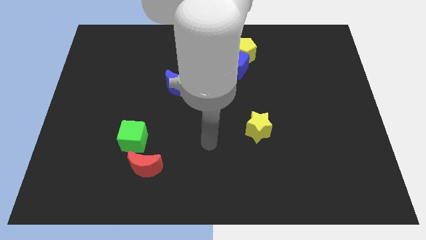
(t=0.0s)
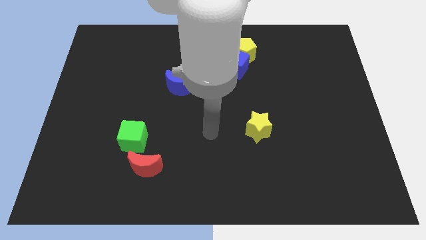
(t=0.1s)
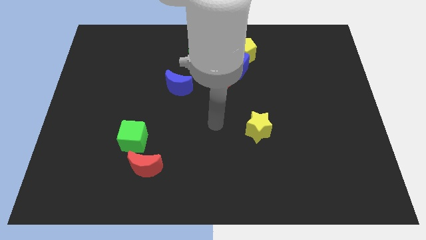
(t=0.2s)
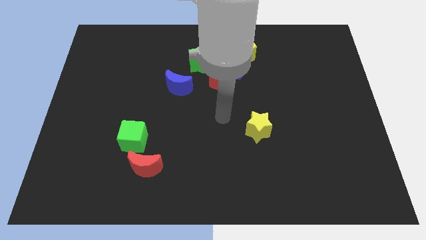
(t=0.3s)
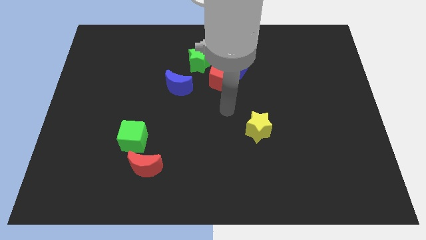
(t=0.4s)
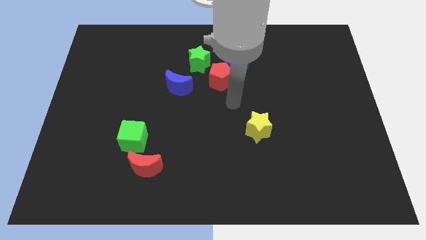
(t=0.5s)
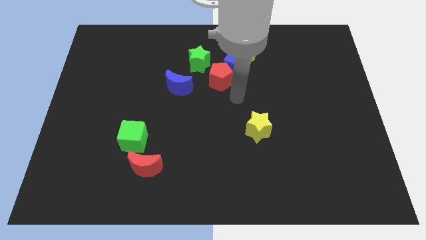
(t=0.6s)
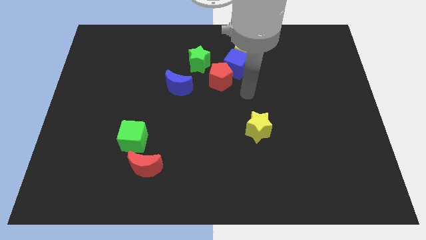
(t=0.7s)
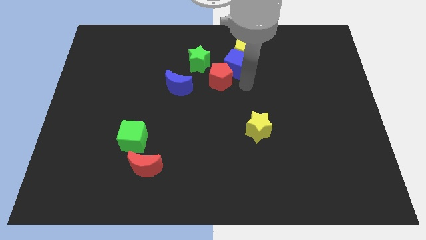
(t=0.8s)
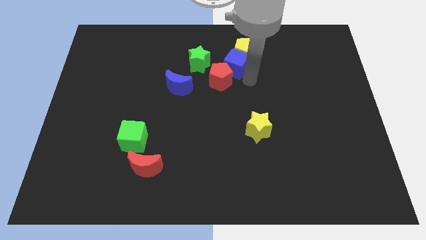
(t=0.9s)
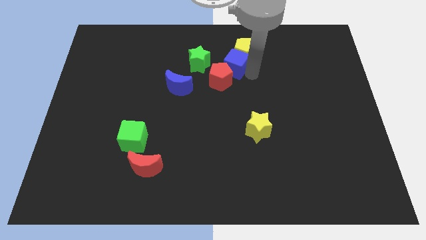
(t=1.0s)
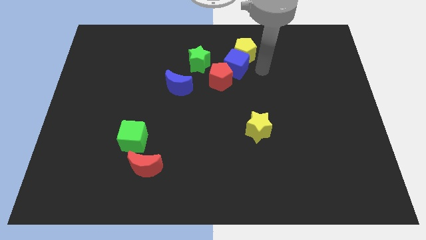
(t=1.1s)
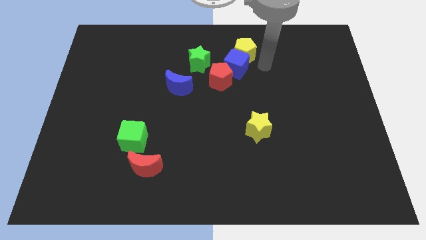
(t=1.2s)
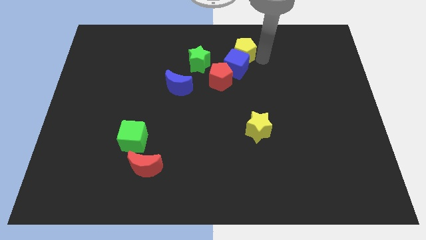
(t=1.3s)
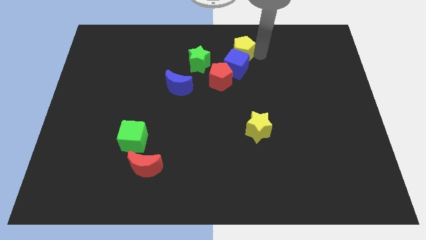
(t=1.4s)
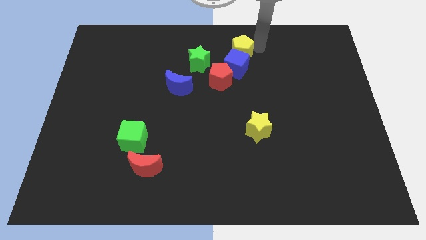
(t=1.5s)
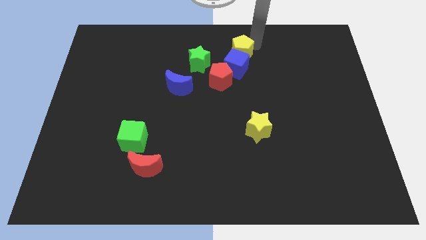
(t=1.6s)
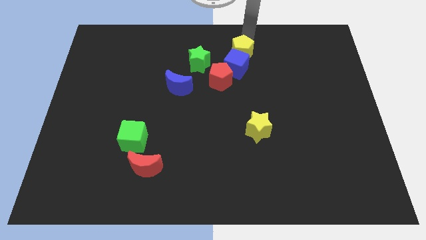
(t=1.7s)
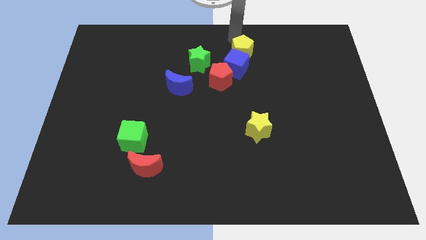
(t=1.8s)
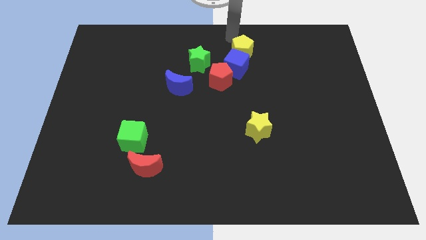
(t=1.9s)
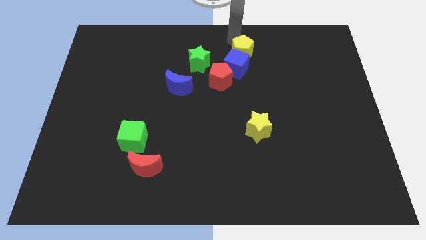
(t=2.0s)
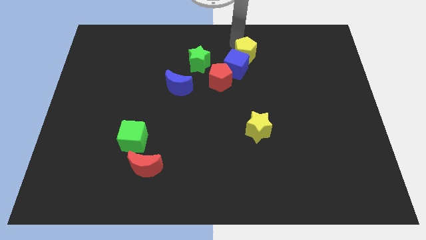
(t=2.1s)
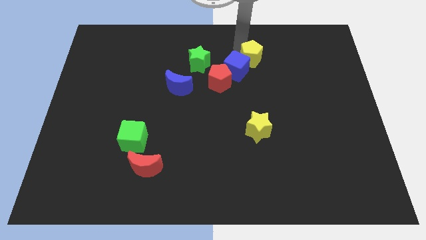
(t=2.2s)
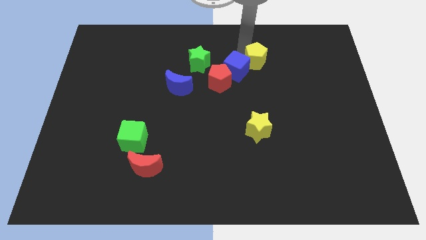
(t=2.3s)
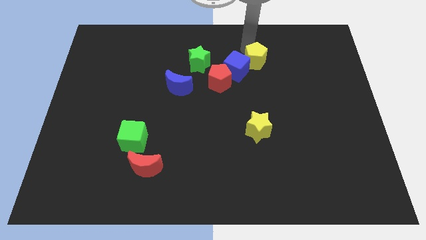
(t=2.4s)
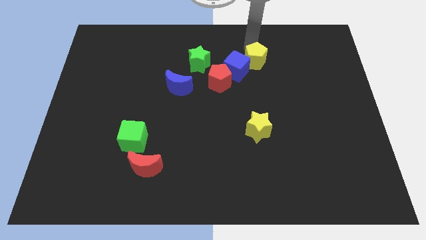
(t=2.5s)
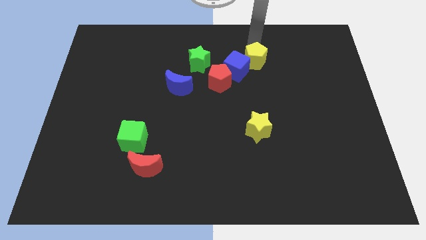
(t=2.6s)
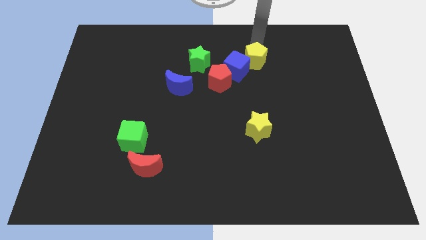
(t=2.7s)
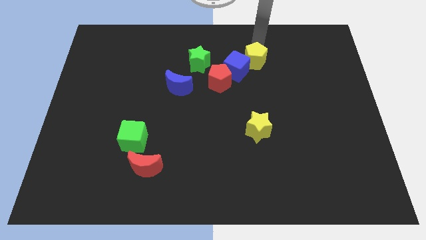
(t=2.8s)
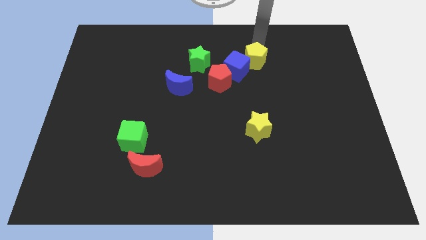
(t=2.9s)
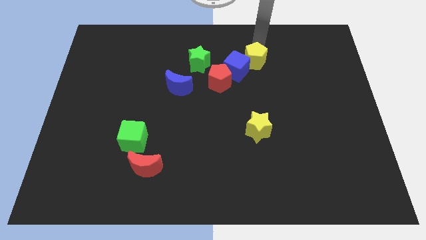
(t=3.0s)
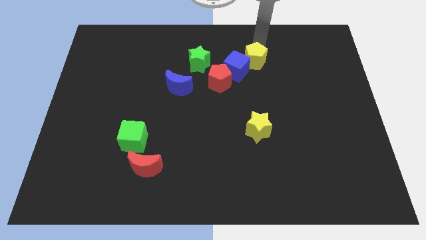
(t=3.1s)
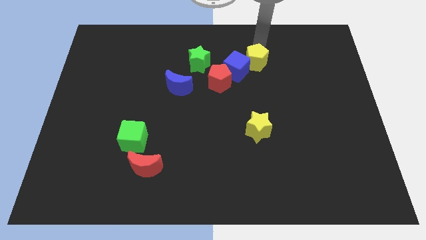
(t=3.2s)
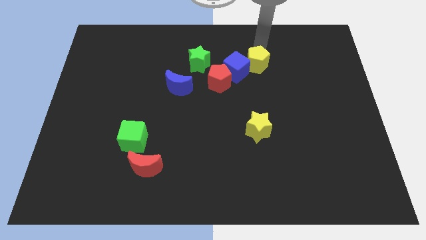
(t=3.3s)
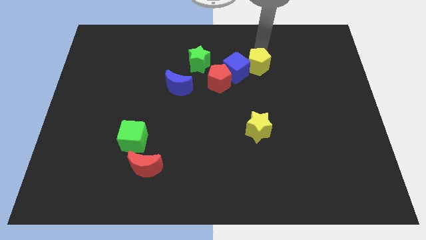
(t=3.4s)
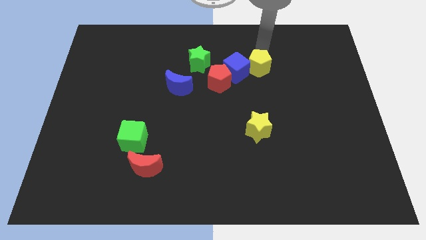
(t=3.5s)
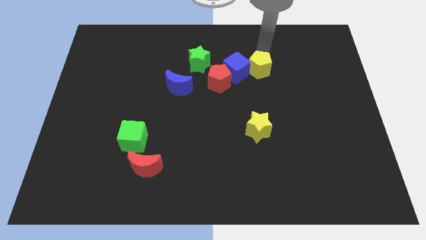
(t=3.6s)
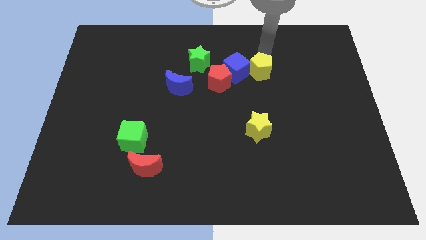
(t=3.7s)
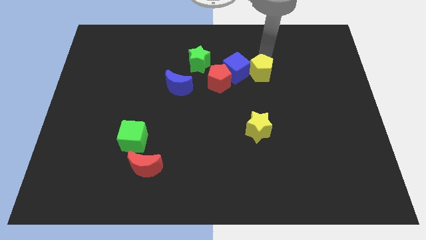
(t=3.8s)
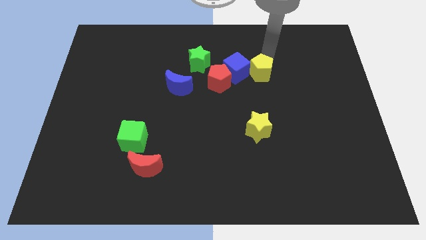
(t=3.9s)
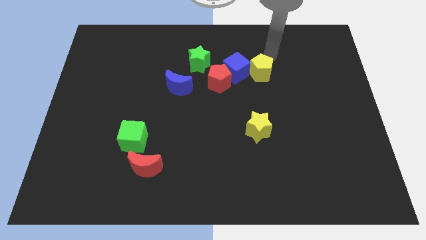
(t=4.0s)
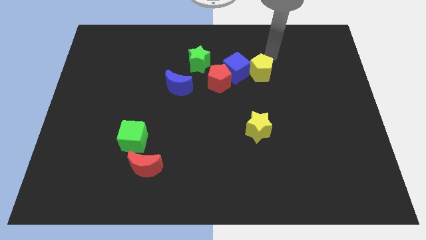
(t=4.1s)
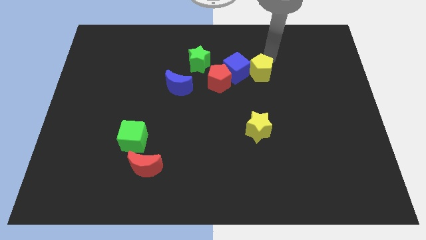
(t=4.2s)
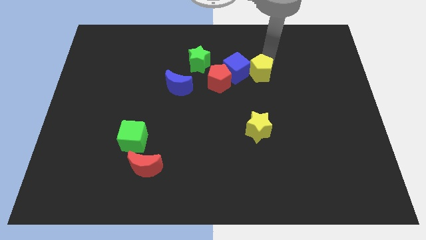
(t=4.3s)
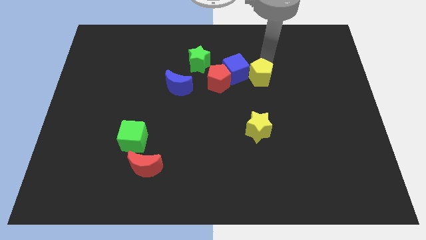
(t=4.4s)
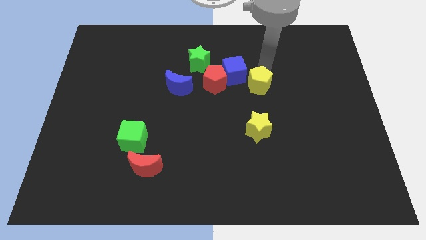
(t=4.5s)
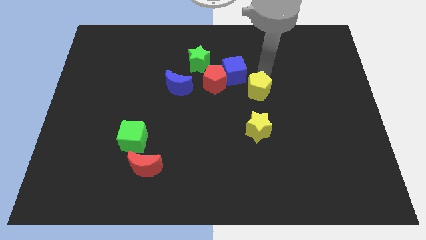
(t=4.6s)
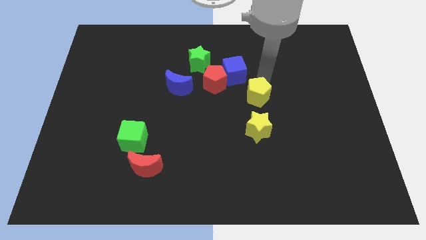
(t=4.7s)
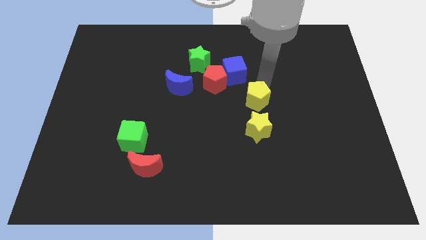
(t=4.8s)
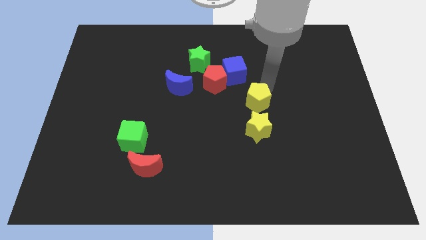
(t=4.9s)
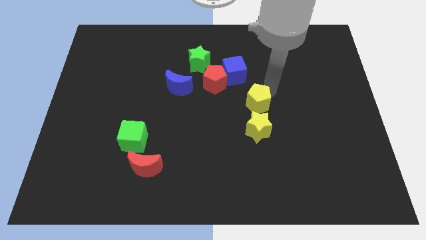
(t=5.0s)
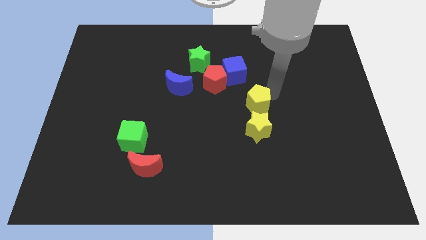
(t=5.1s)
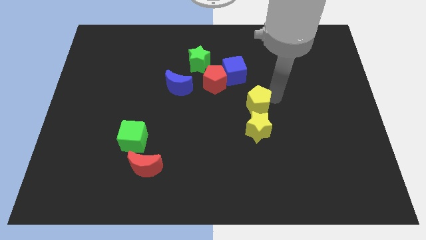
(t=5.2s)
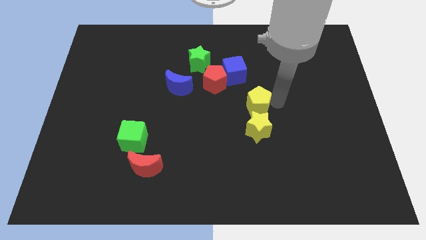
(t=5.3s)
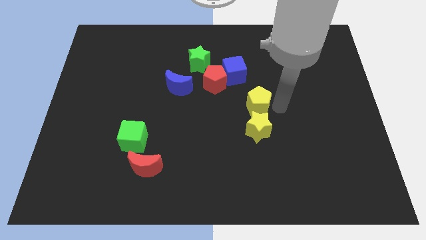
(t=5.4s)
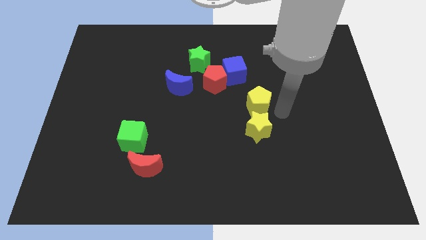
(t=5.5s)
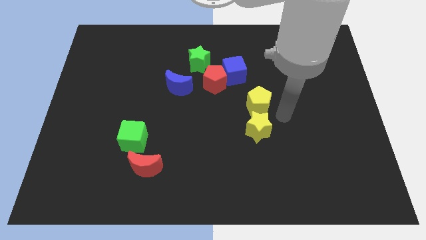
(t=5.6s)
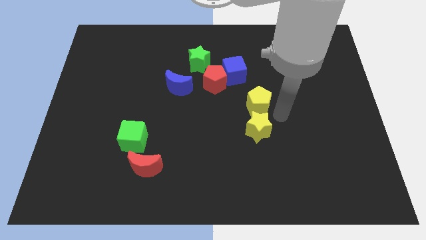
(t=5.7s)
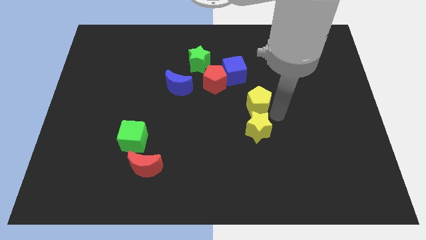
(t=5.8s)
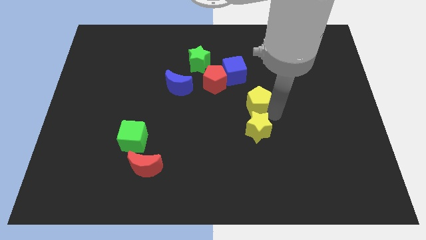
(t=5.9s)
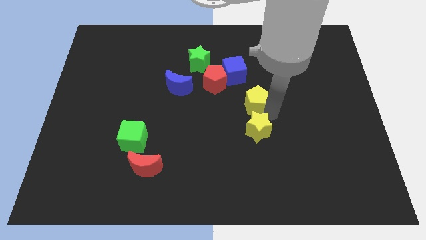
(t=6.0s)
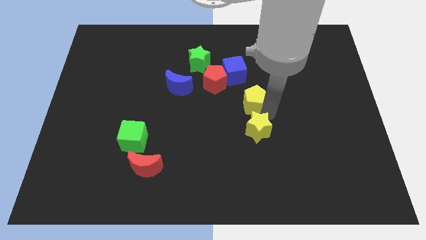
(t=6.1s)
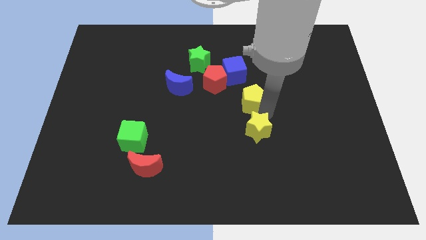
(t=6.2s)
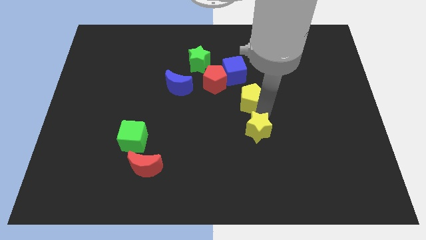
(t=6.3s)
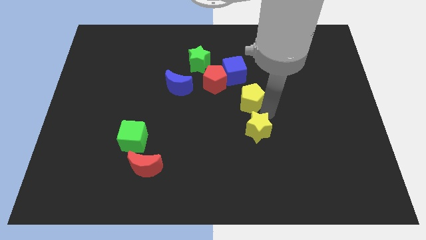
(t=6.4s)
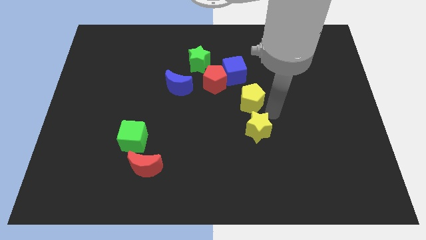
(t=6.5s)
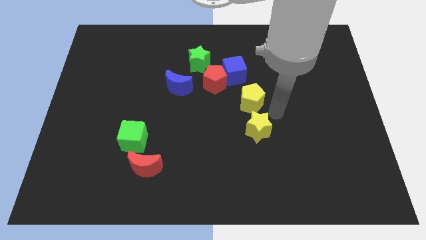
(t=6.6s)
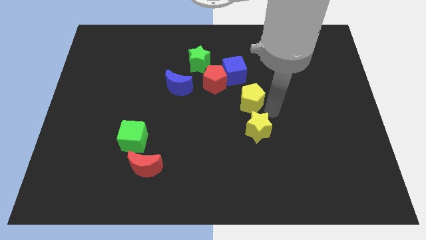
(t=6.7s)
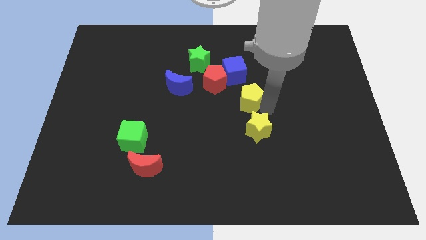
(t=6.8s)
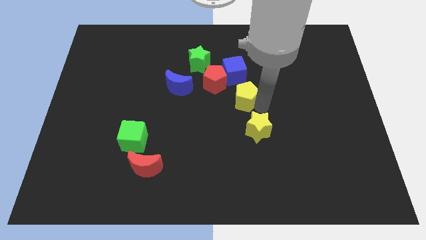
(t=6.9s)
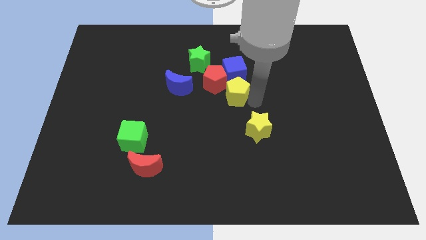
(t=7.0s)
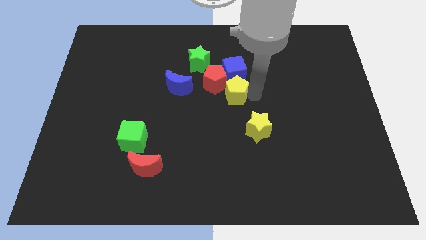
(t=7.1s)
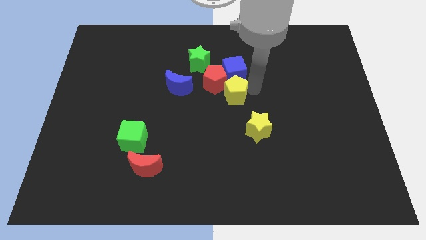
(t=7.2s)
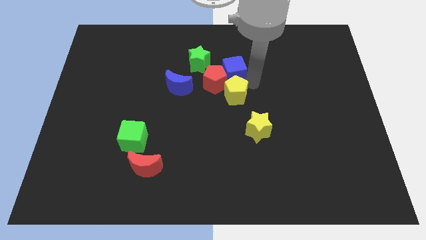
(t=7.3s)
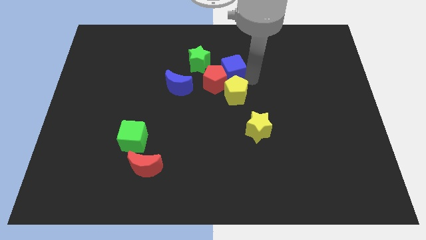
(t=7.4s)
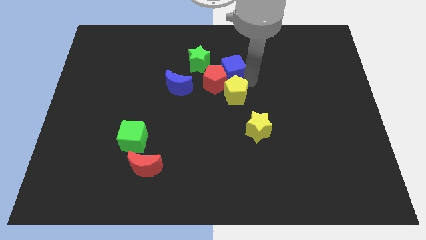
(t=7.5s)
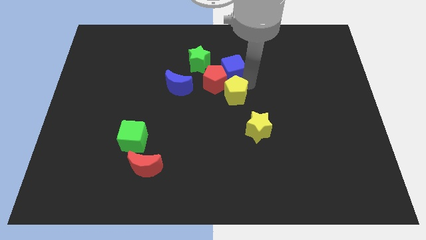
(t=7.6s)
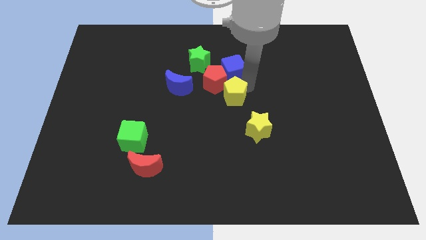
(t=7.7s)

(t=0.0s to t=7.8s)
move the yellow pentagon below the red pentagon
